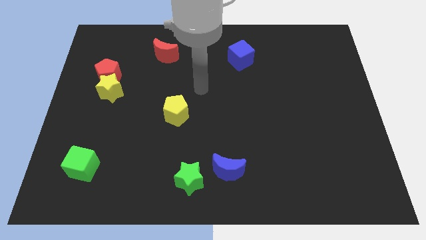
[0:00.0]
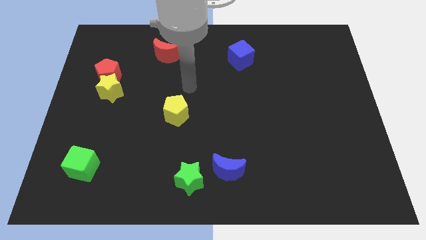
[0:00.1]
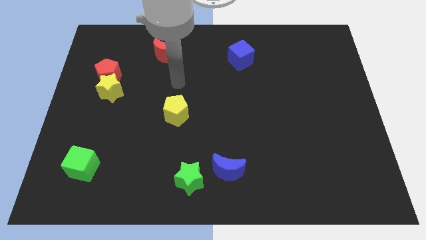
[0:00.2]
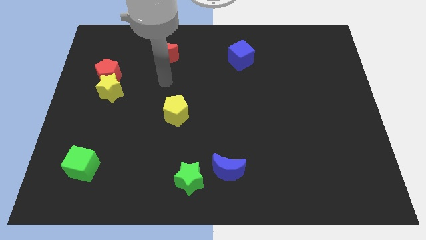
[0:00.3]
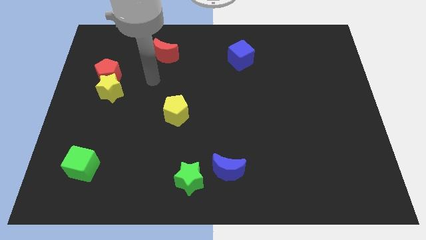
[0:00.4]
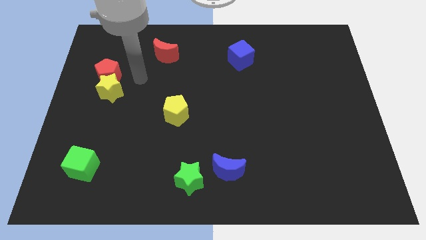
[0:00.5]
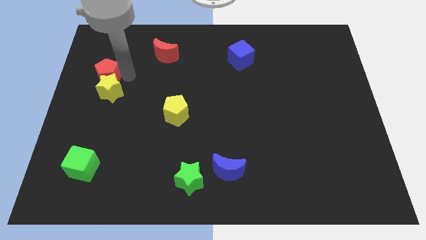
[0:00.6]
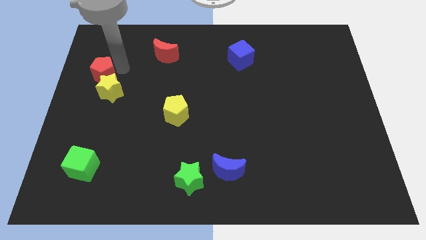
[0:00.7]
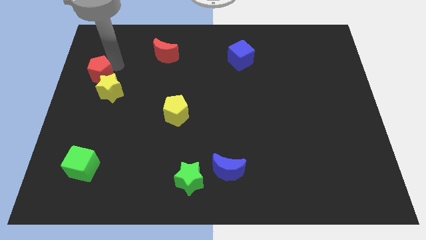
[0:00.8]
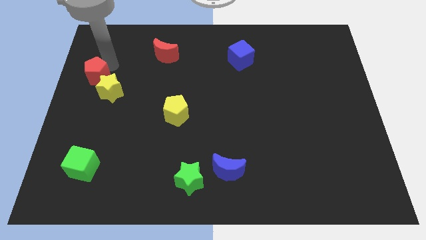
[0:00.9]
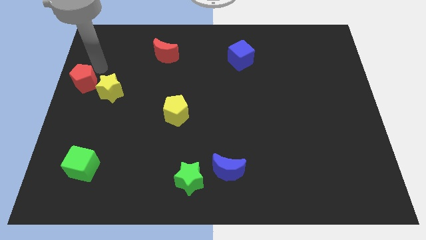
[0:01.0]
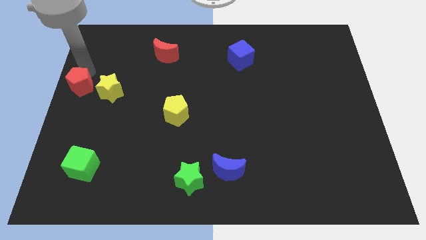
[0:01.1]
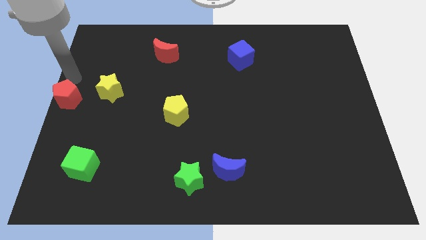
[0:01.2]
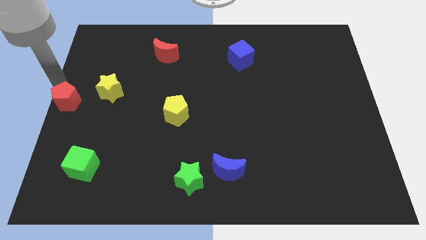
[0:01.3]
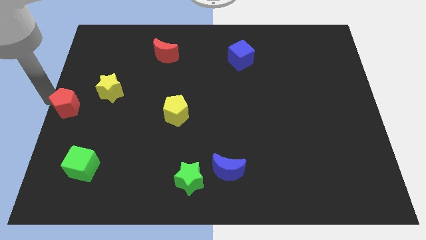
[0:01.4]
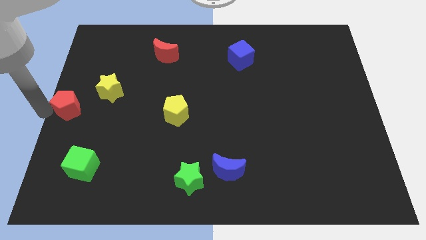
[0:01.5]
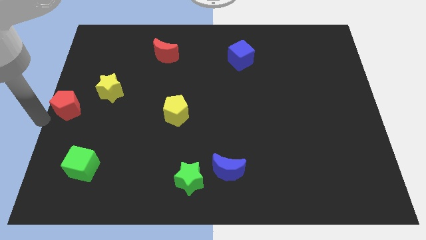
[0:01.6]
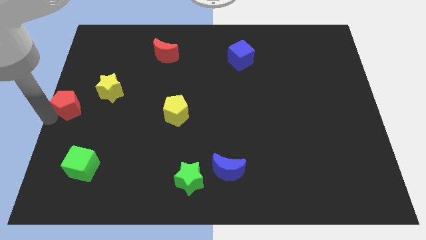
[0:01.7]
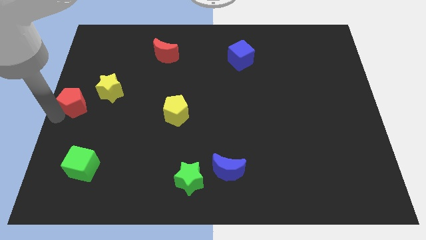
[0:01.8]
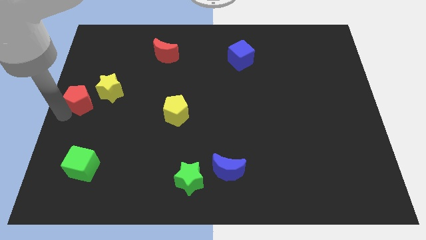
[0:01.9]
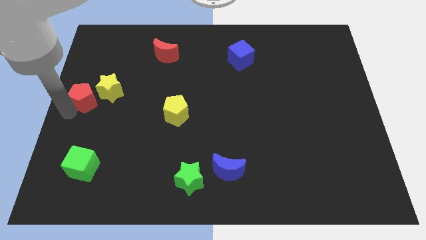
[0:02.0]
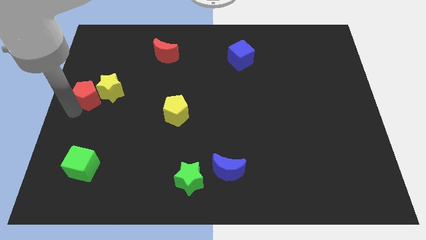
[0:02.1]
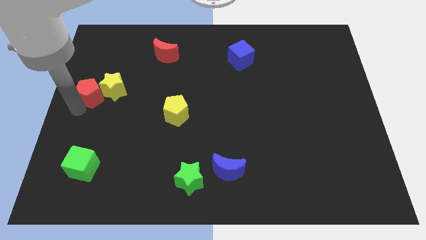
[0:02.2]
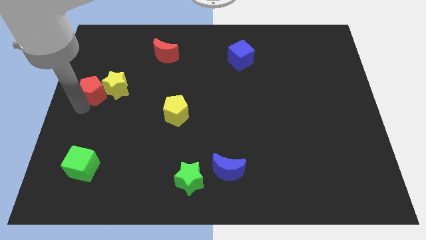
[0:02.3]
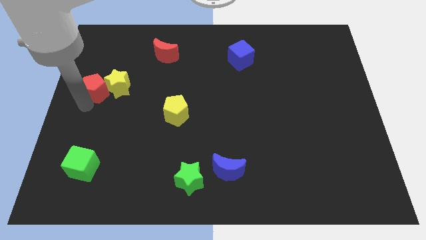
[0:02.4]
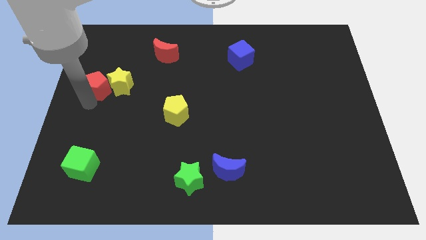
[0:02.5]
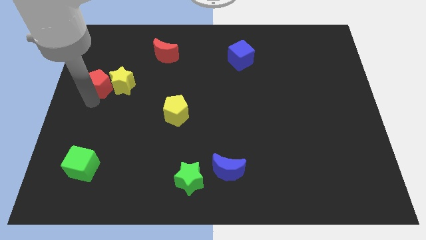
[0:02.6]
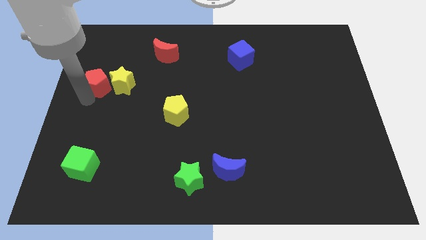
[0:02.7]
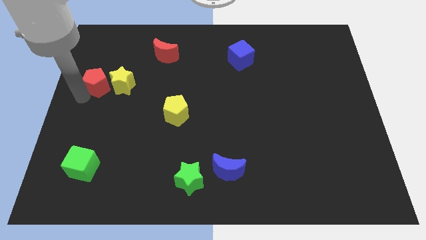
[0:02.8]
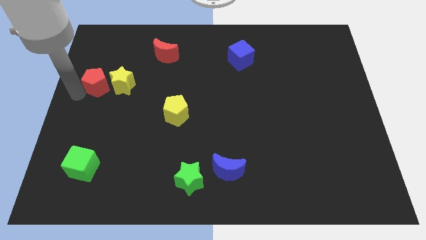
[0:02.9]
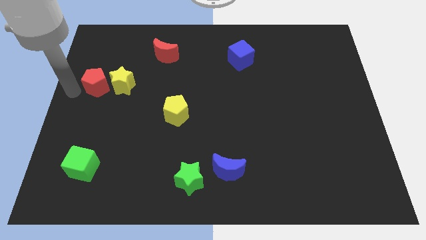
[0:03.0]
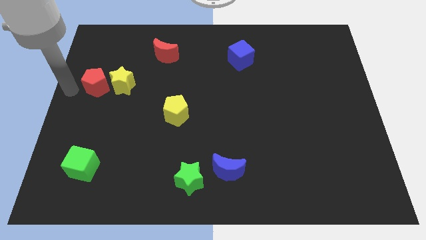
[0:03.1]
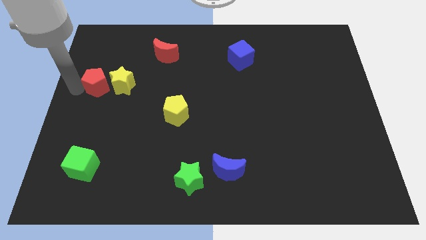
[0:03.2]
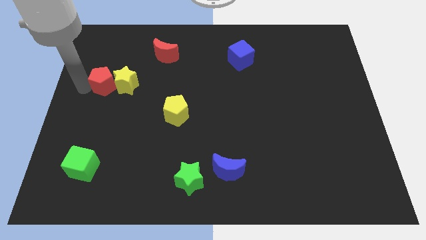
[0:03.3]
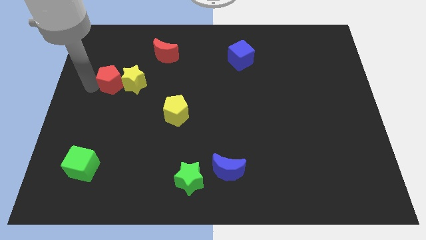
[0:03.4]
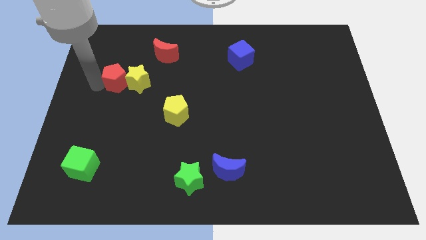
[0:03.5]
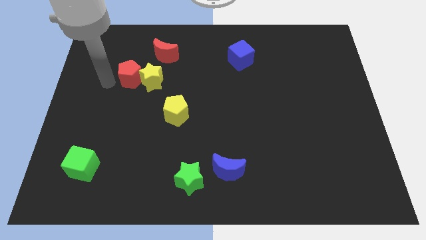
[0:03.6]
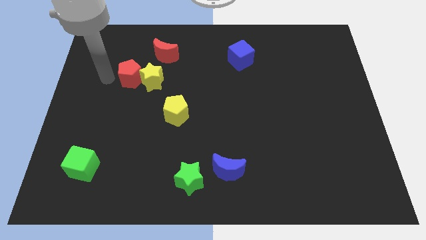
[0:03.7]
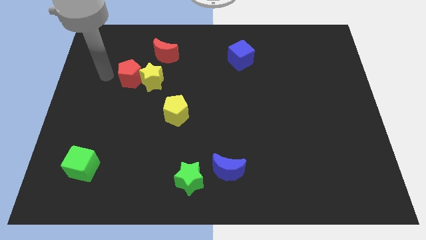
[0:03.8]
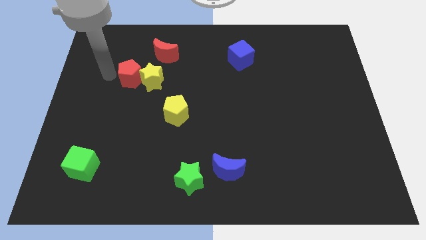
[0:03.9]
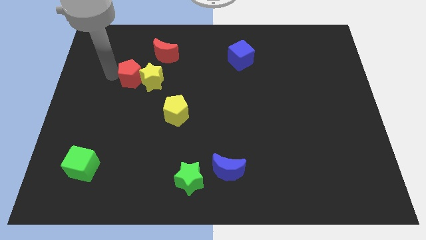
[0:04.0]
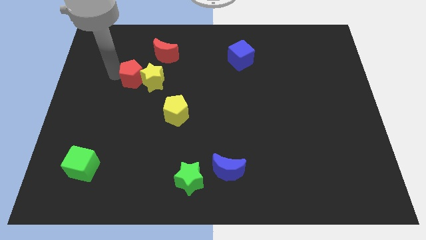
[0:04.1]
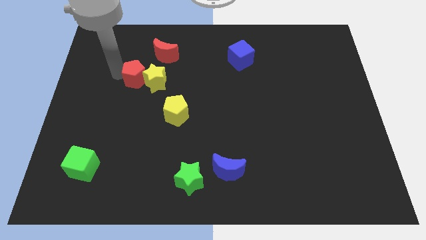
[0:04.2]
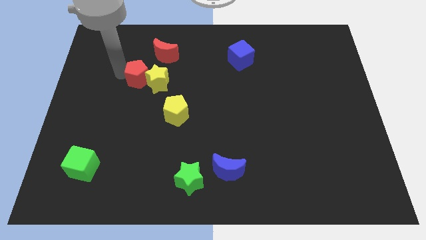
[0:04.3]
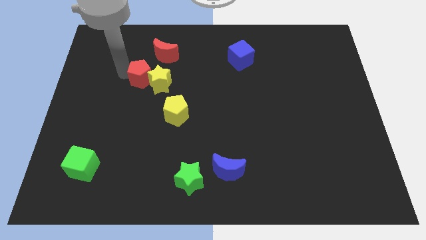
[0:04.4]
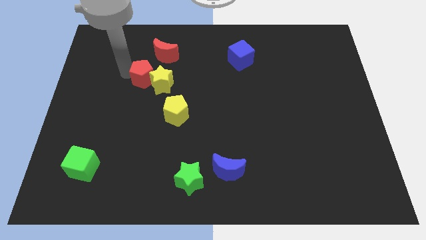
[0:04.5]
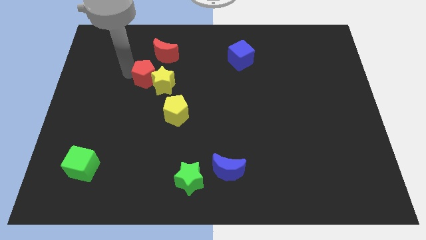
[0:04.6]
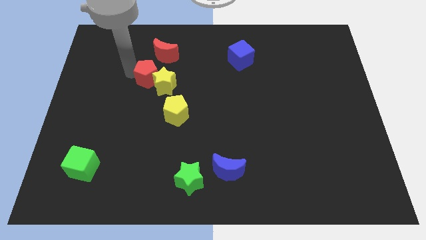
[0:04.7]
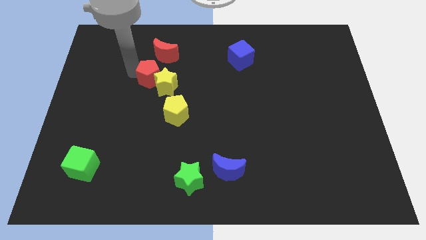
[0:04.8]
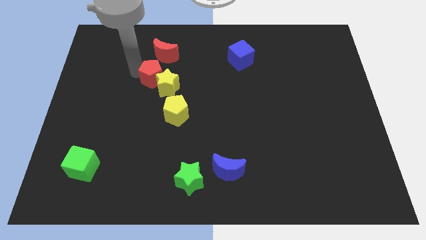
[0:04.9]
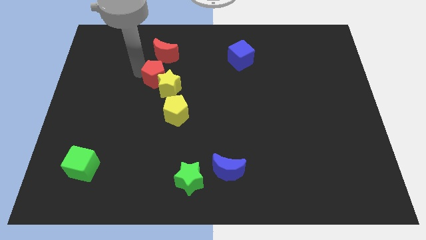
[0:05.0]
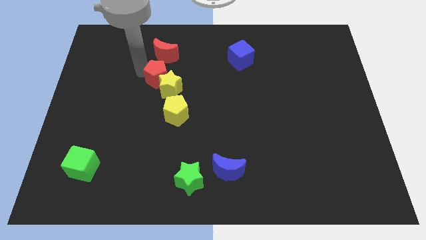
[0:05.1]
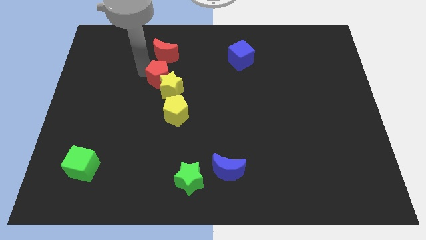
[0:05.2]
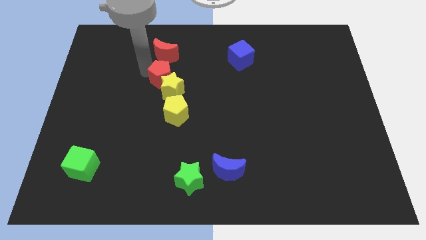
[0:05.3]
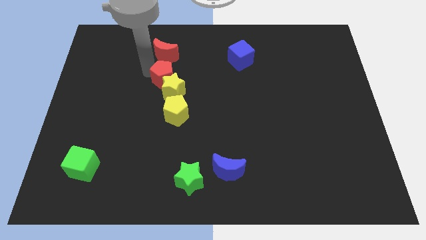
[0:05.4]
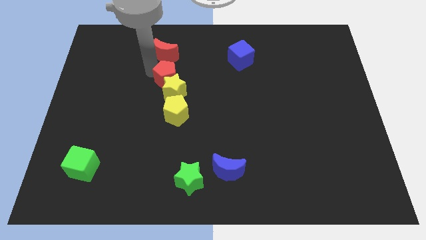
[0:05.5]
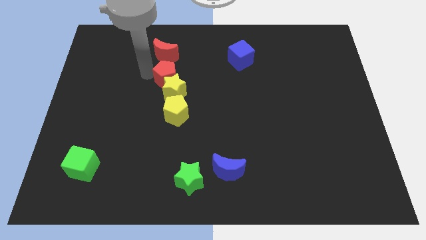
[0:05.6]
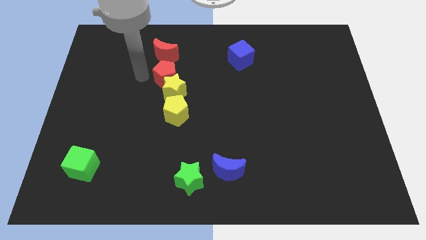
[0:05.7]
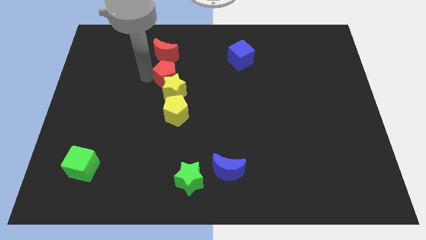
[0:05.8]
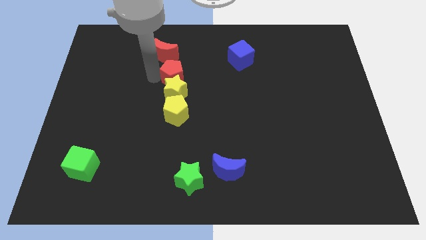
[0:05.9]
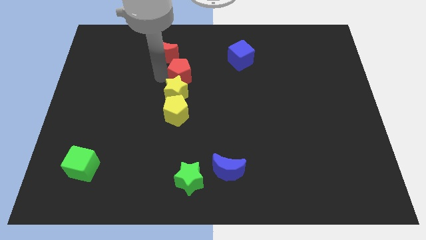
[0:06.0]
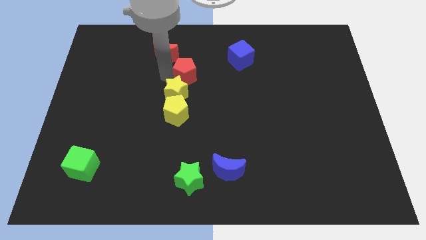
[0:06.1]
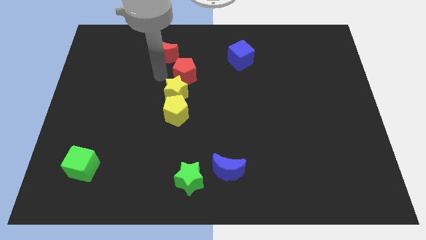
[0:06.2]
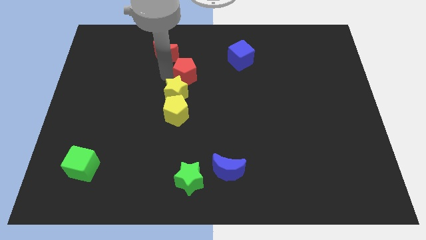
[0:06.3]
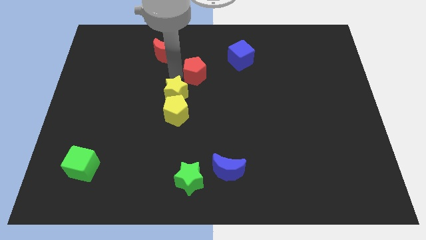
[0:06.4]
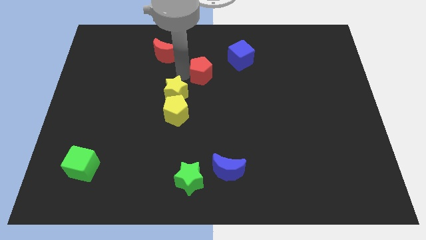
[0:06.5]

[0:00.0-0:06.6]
move the red pentagon to the bottom left side of the blue cube

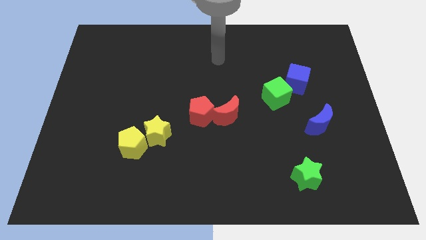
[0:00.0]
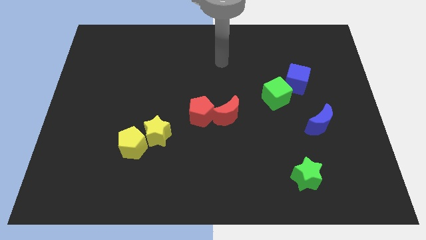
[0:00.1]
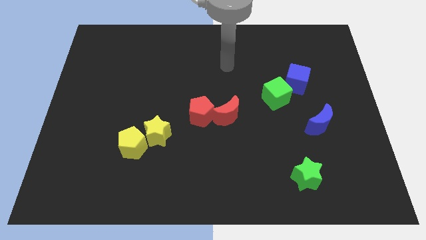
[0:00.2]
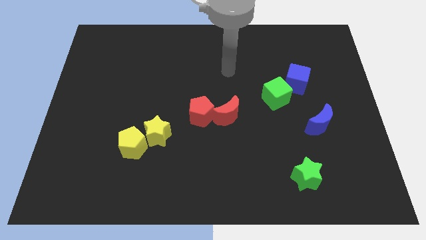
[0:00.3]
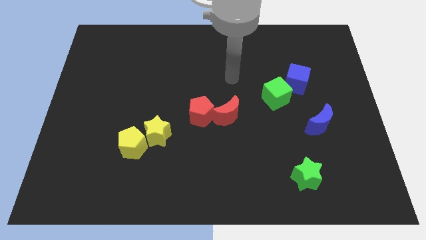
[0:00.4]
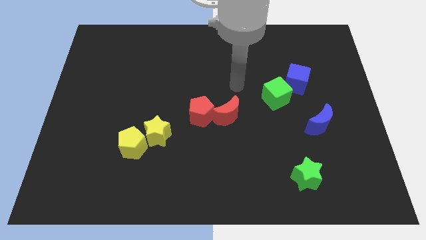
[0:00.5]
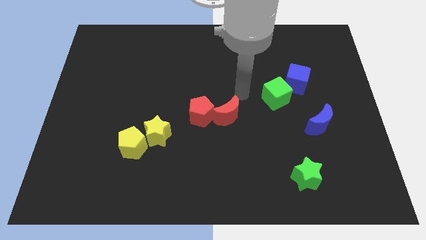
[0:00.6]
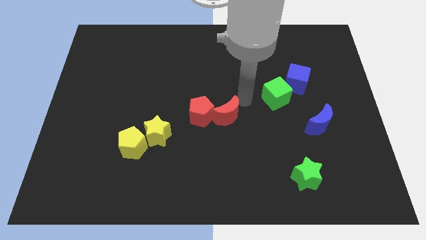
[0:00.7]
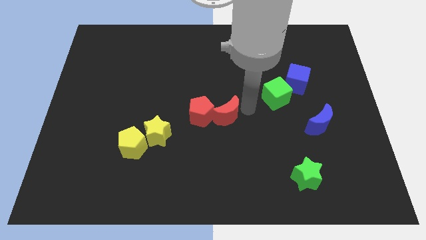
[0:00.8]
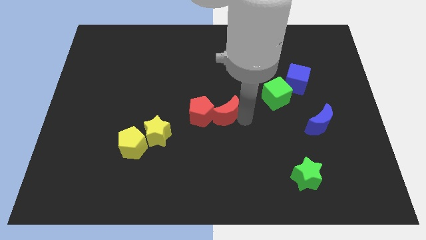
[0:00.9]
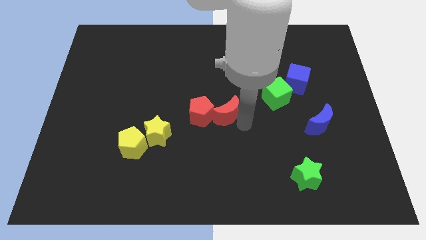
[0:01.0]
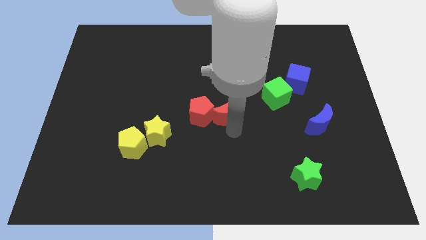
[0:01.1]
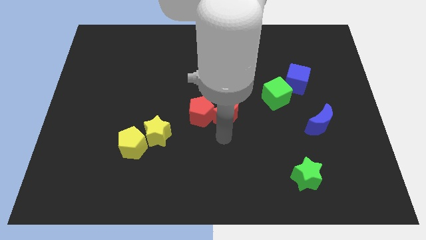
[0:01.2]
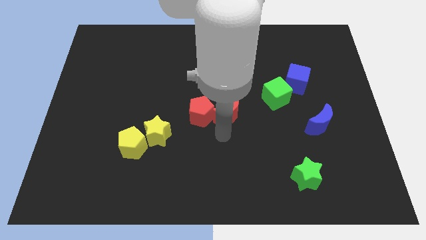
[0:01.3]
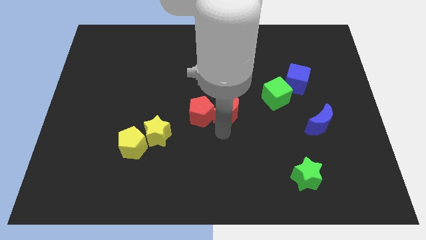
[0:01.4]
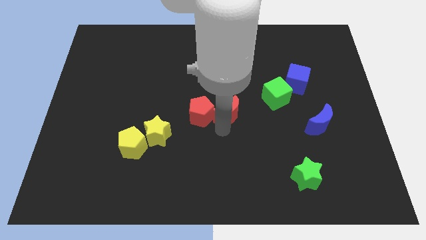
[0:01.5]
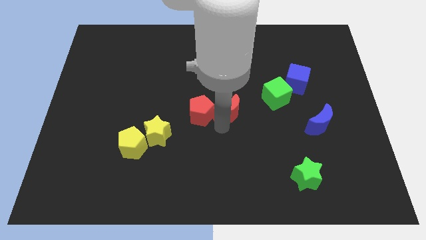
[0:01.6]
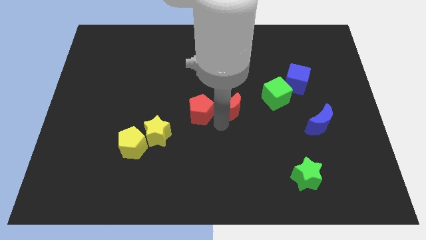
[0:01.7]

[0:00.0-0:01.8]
move the red moon just left of the green cube
